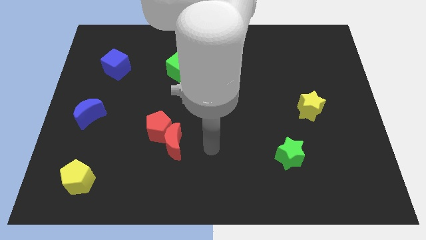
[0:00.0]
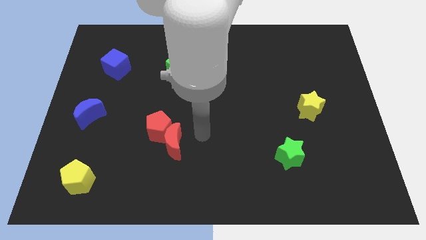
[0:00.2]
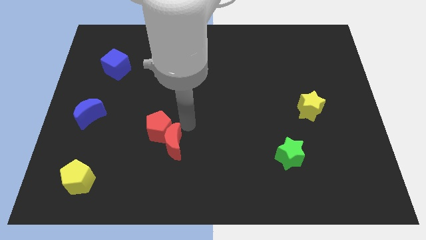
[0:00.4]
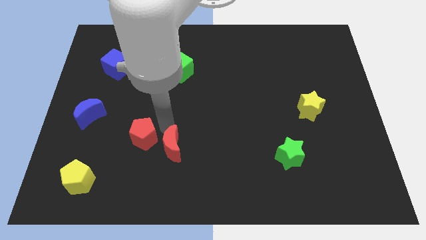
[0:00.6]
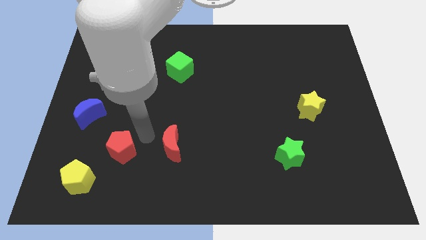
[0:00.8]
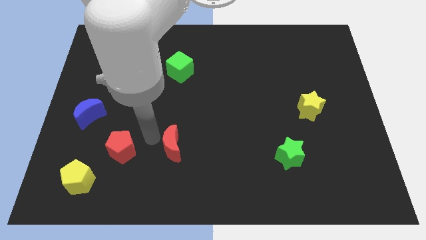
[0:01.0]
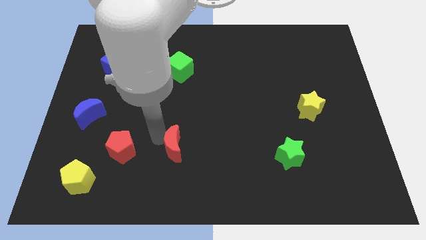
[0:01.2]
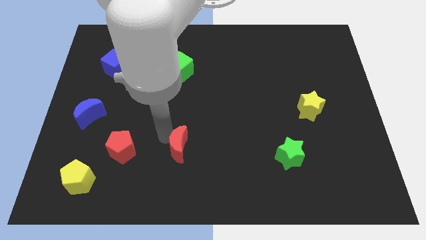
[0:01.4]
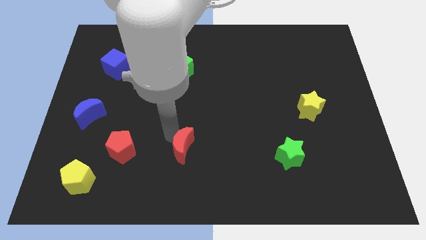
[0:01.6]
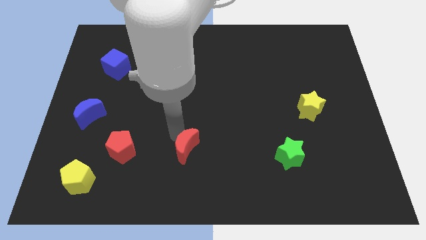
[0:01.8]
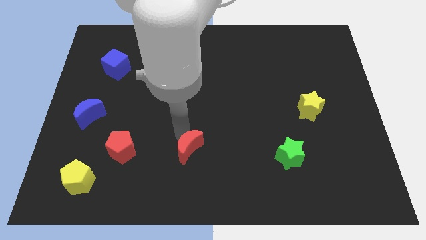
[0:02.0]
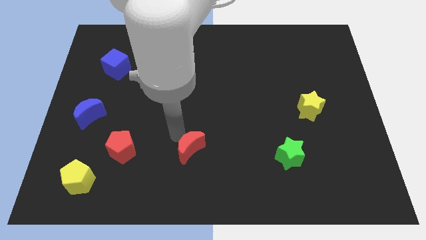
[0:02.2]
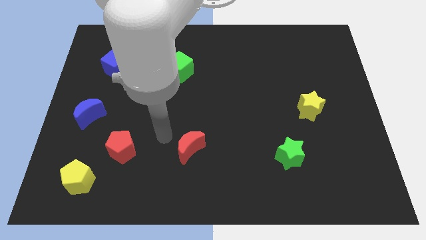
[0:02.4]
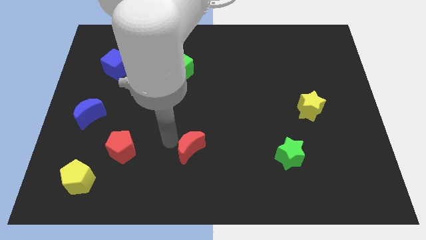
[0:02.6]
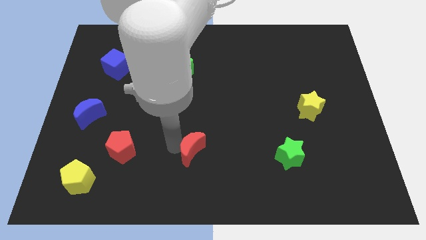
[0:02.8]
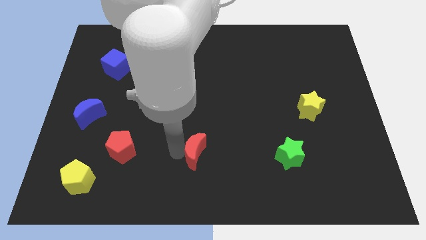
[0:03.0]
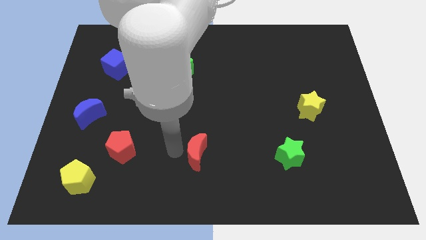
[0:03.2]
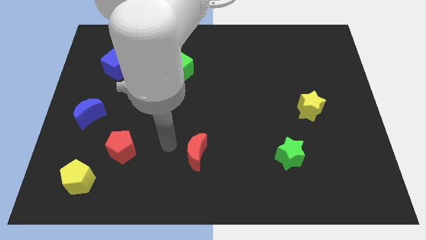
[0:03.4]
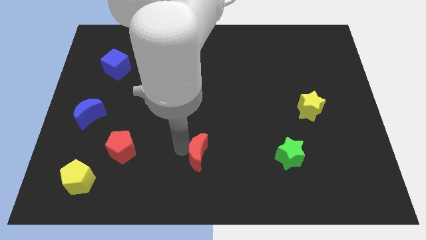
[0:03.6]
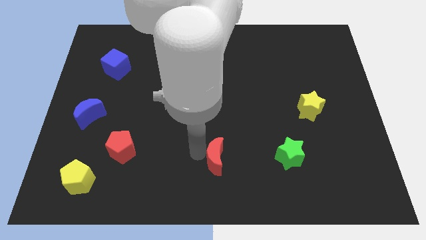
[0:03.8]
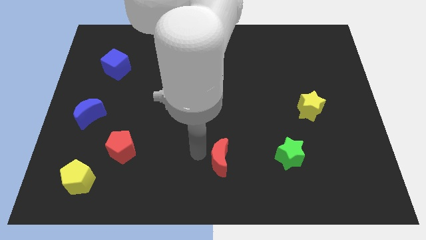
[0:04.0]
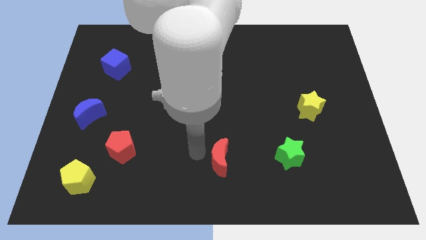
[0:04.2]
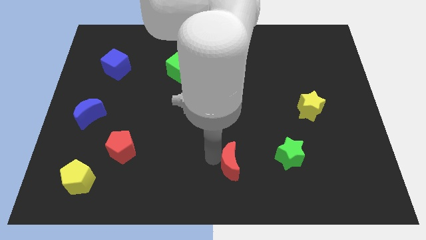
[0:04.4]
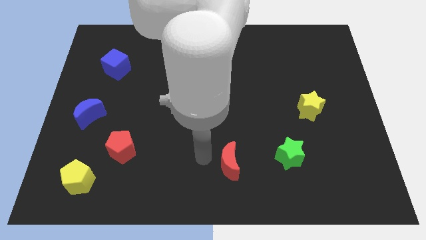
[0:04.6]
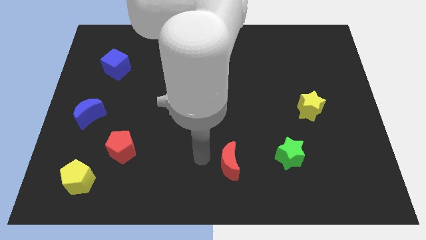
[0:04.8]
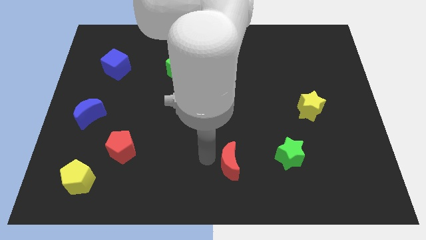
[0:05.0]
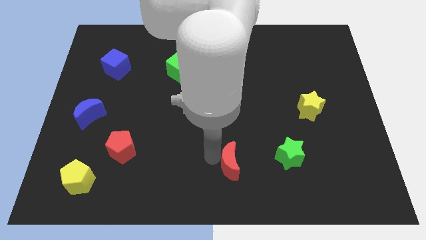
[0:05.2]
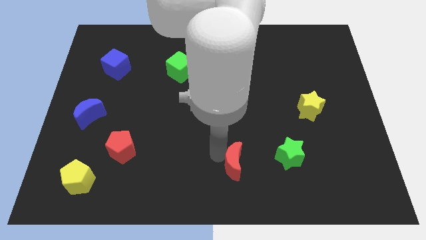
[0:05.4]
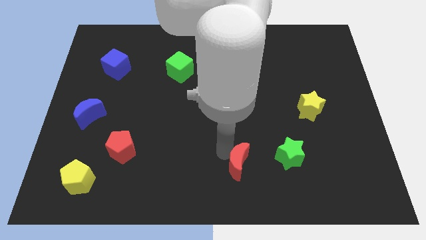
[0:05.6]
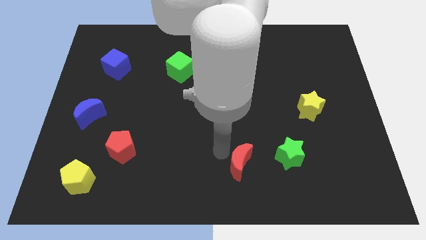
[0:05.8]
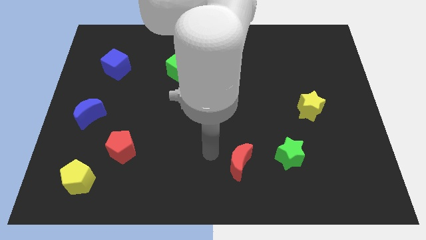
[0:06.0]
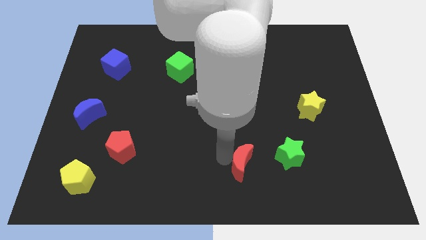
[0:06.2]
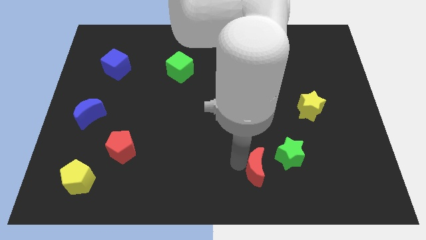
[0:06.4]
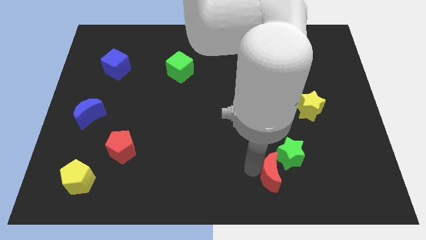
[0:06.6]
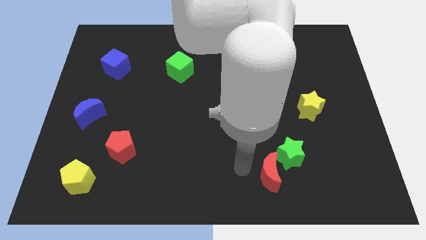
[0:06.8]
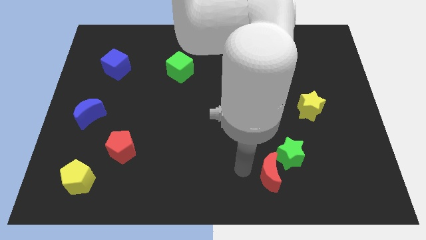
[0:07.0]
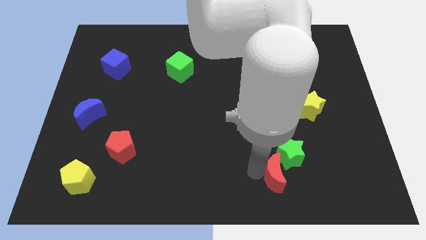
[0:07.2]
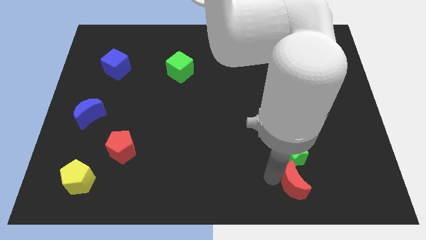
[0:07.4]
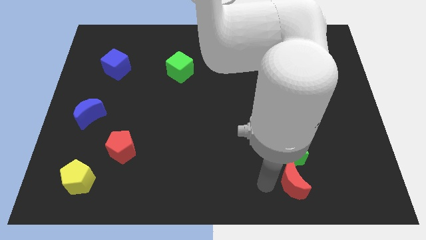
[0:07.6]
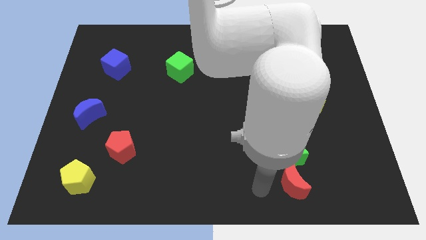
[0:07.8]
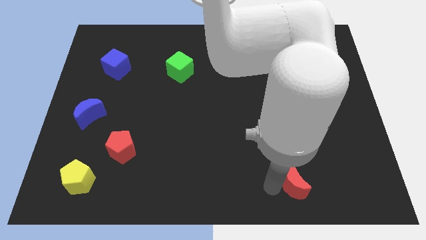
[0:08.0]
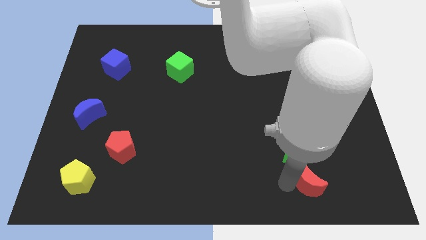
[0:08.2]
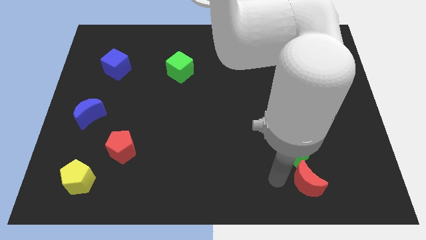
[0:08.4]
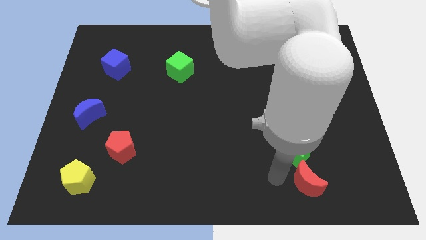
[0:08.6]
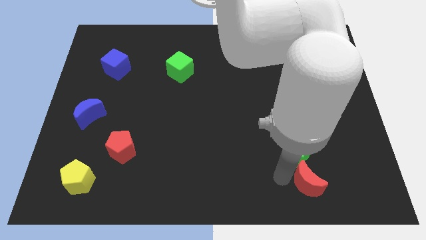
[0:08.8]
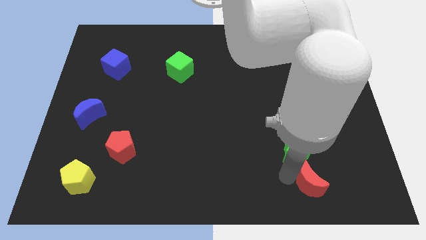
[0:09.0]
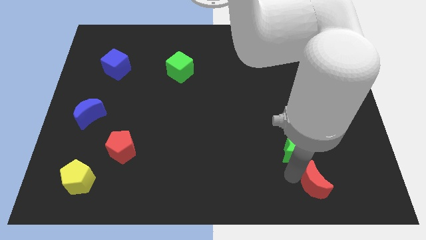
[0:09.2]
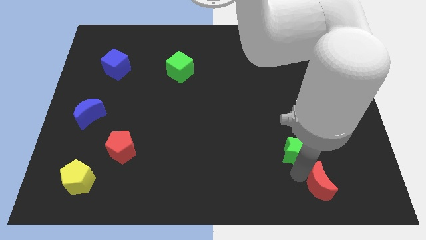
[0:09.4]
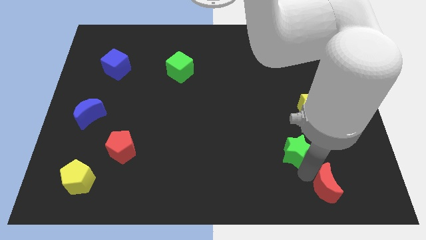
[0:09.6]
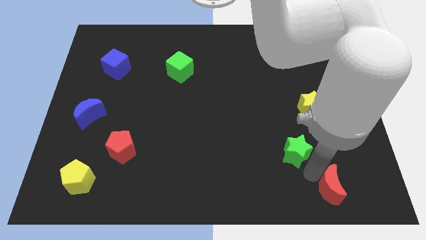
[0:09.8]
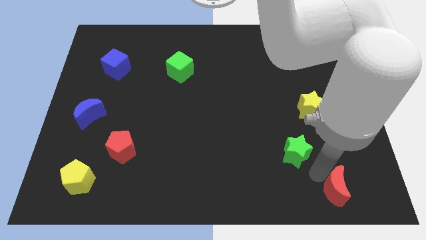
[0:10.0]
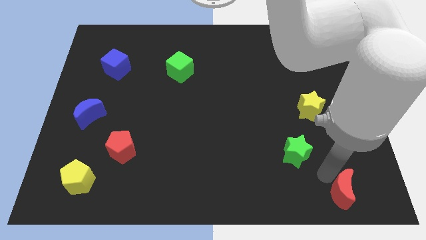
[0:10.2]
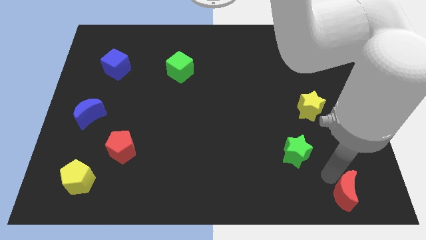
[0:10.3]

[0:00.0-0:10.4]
move the red moon to the lower right corner

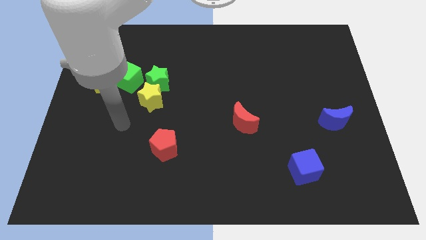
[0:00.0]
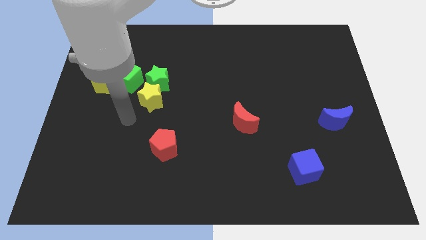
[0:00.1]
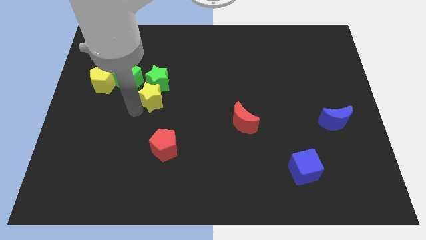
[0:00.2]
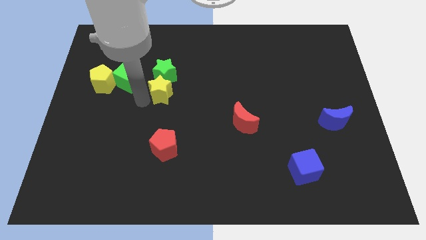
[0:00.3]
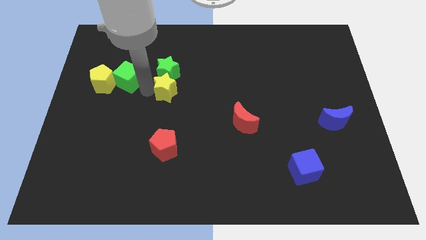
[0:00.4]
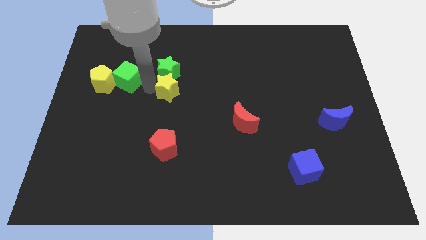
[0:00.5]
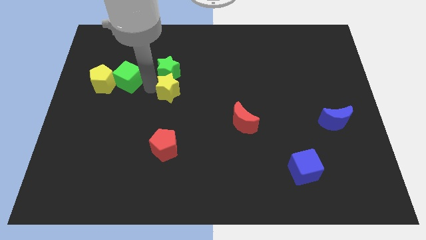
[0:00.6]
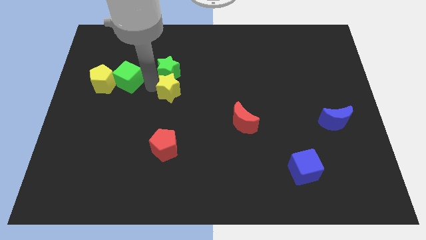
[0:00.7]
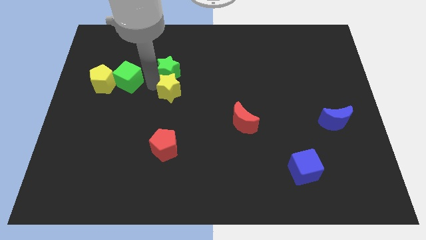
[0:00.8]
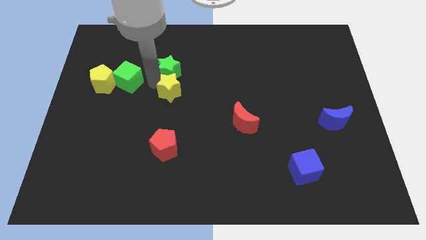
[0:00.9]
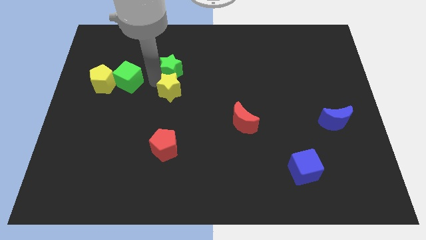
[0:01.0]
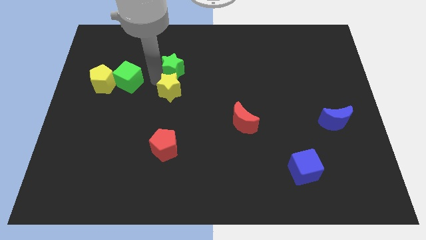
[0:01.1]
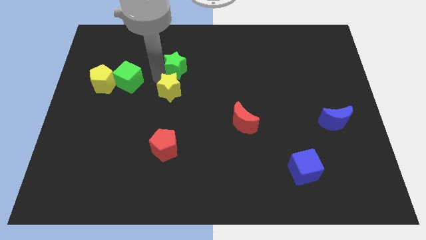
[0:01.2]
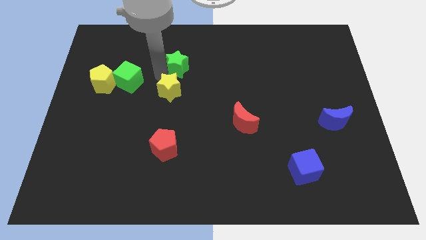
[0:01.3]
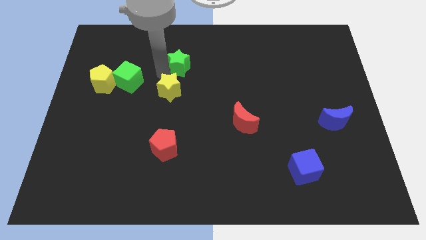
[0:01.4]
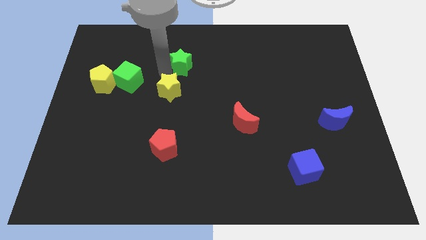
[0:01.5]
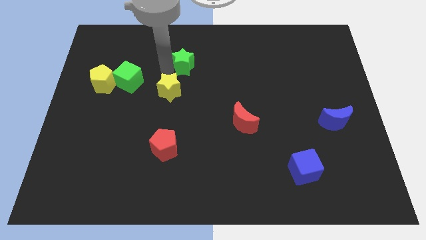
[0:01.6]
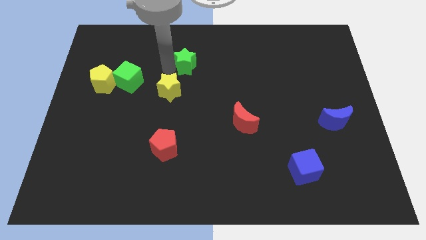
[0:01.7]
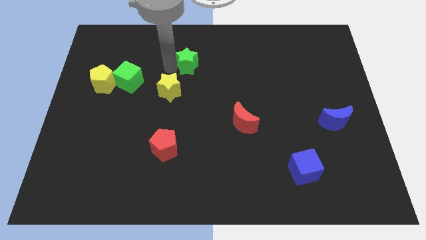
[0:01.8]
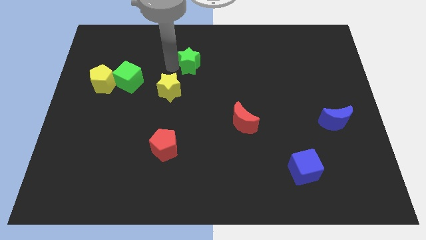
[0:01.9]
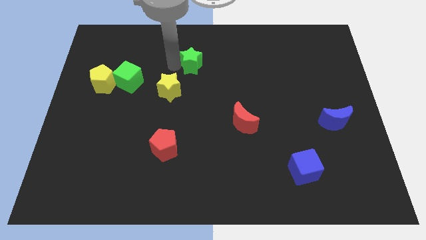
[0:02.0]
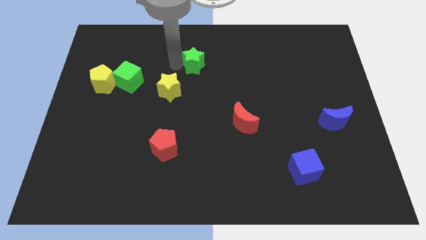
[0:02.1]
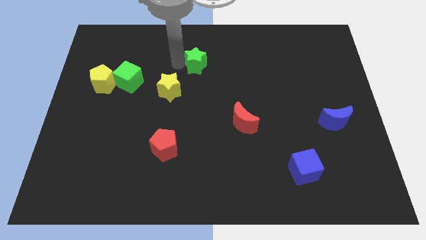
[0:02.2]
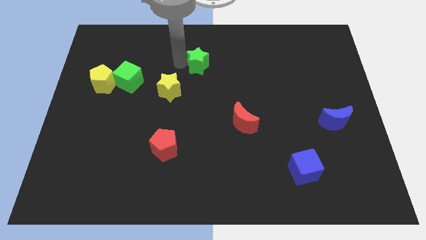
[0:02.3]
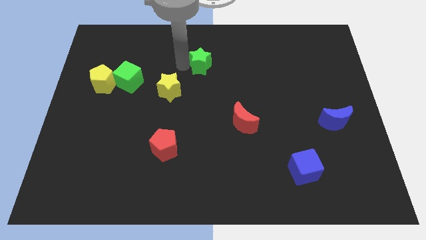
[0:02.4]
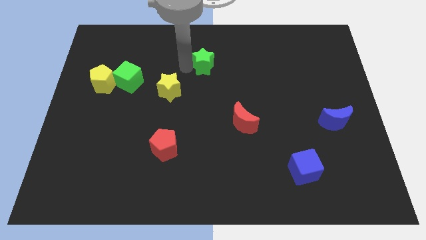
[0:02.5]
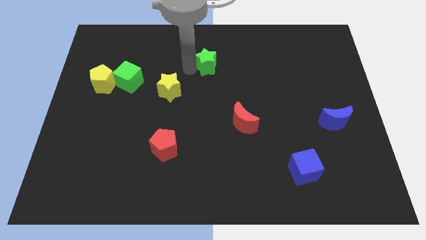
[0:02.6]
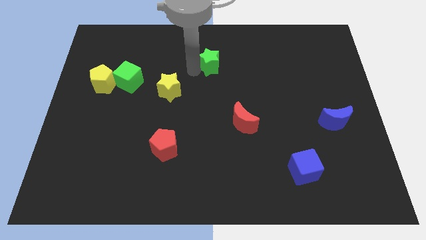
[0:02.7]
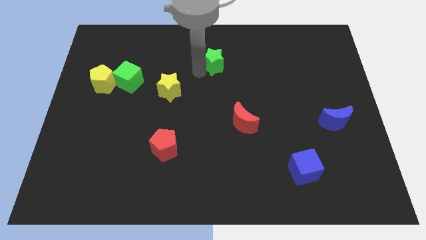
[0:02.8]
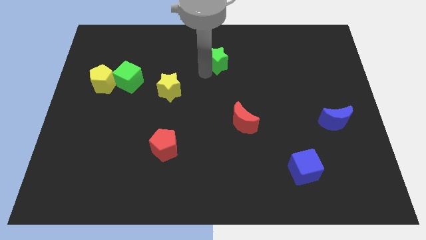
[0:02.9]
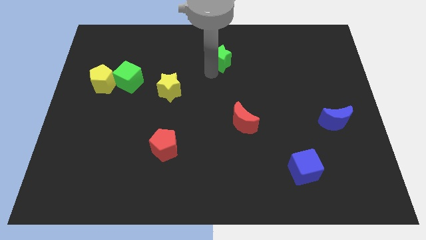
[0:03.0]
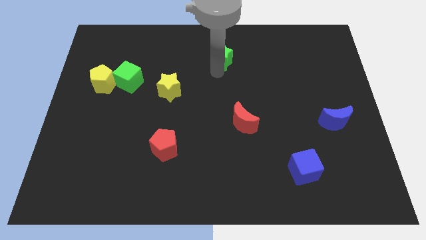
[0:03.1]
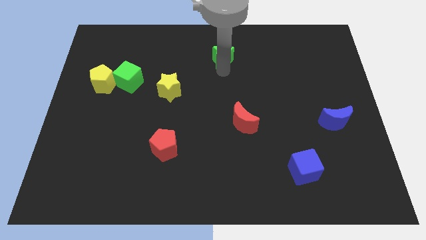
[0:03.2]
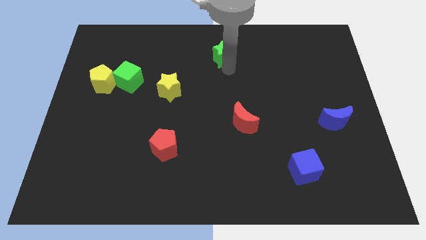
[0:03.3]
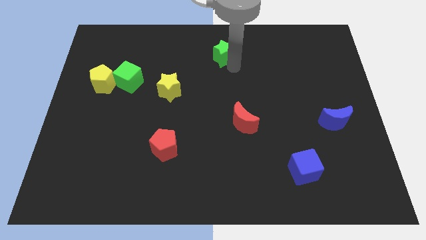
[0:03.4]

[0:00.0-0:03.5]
push the green star to the towards your base
